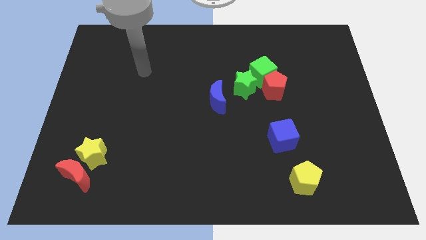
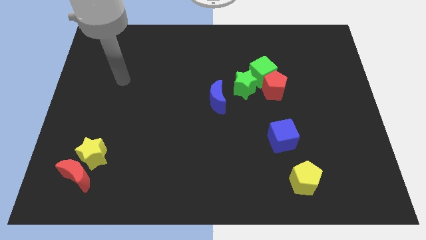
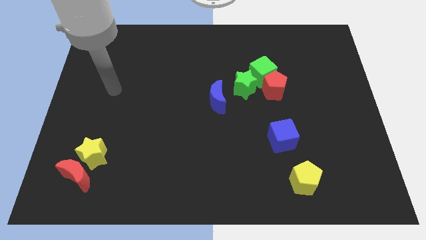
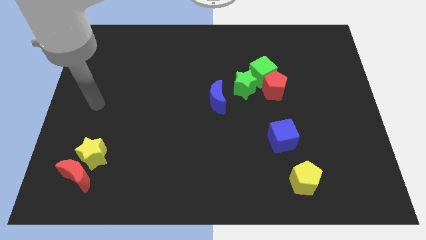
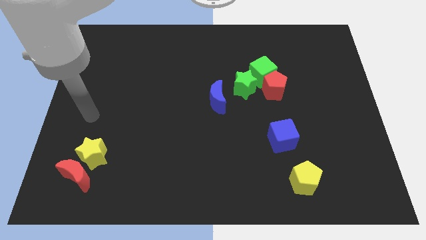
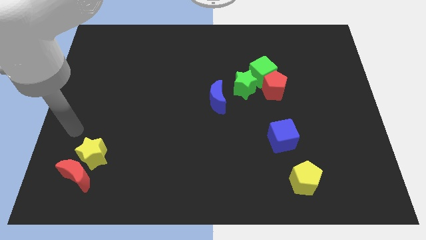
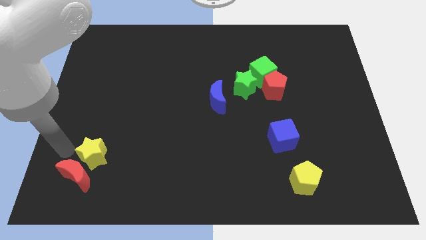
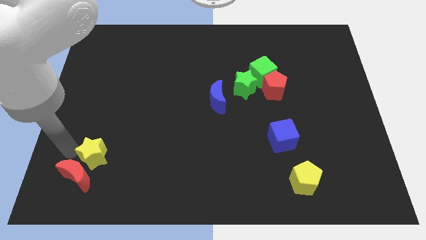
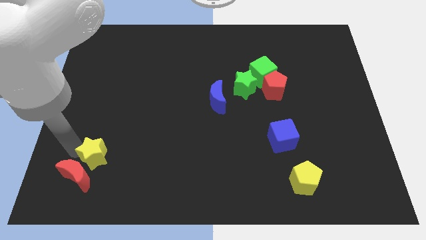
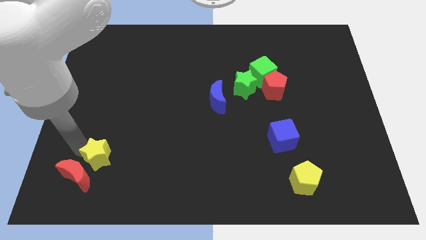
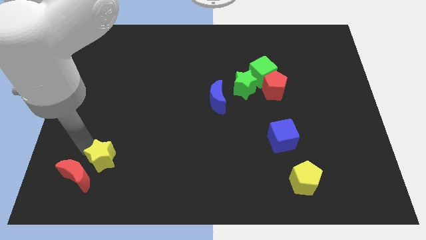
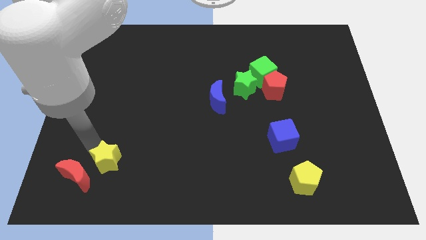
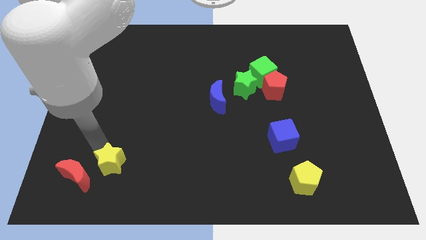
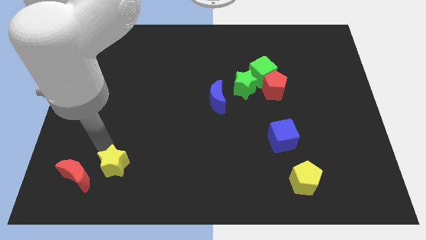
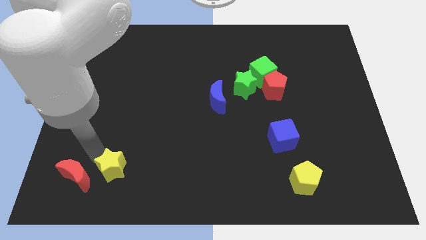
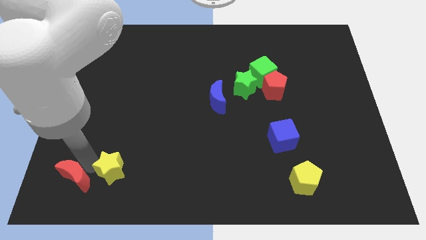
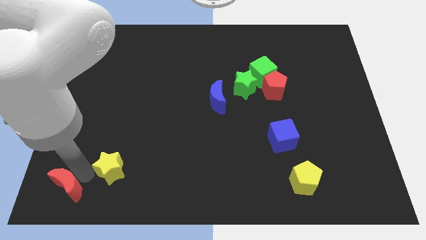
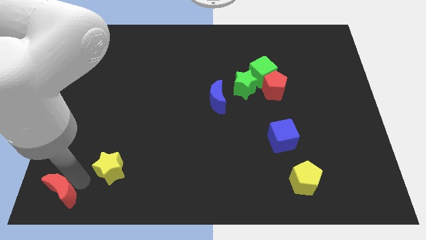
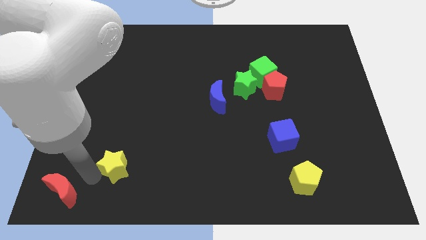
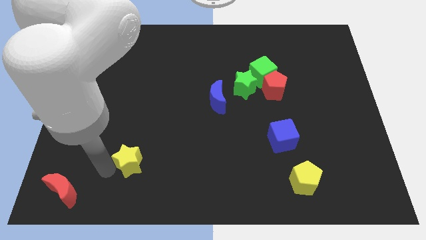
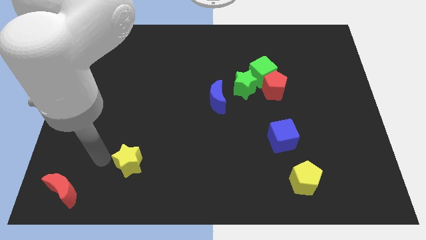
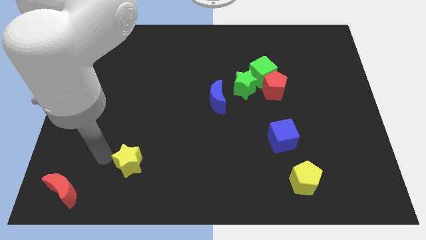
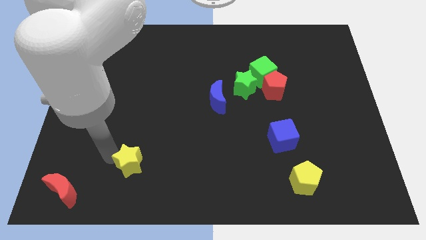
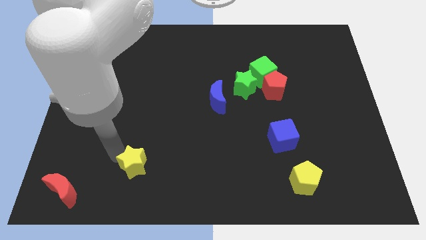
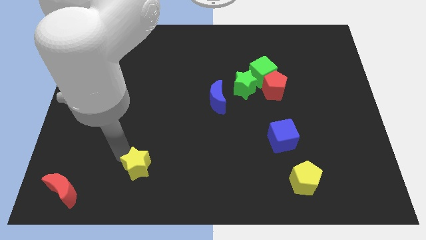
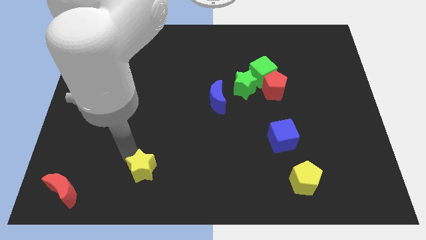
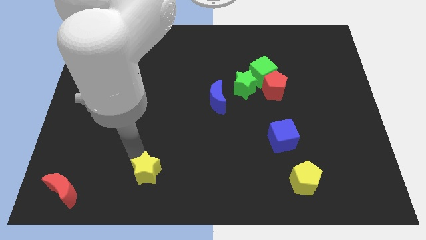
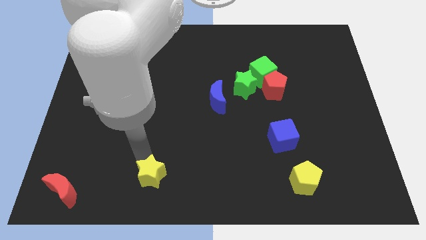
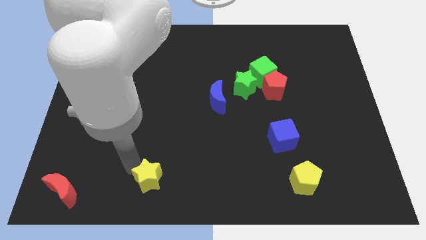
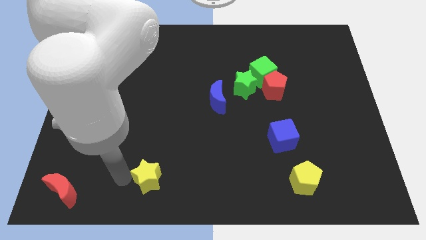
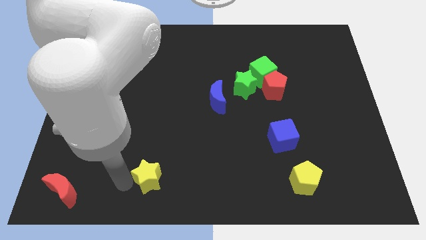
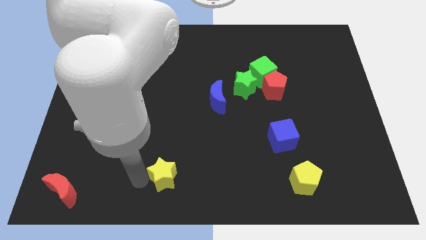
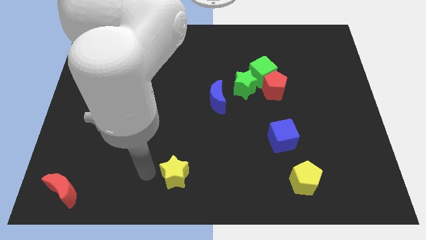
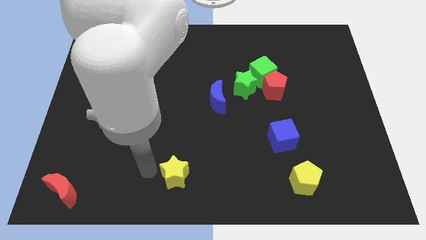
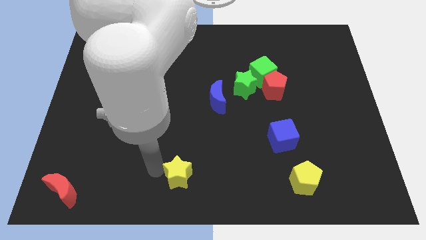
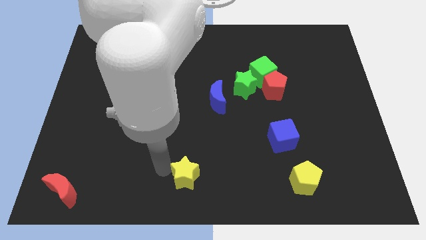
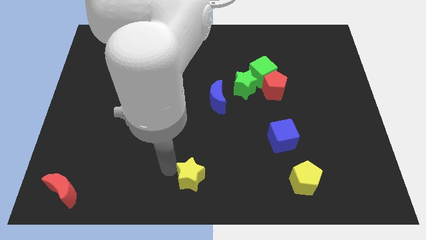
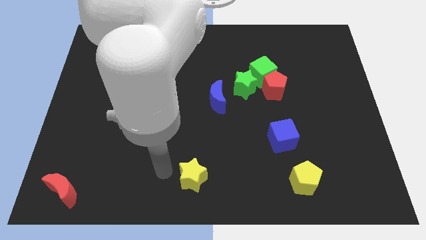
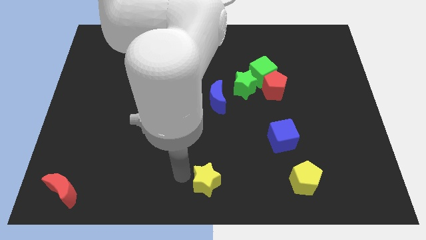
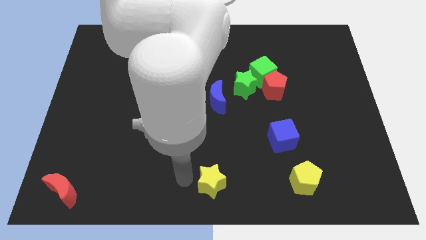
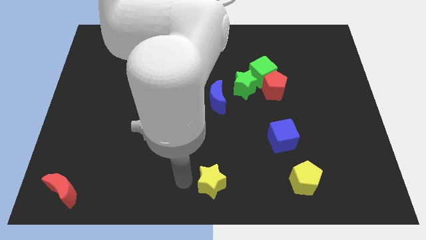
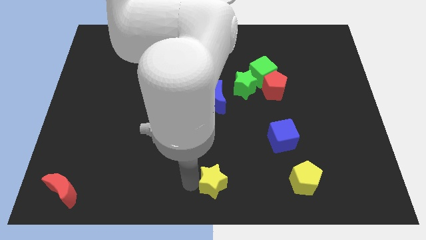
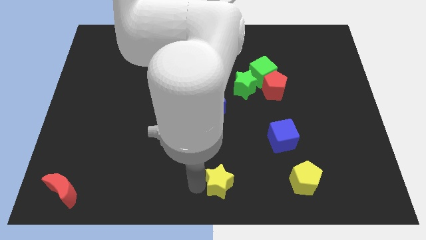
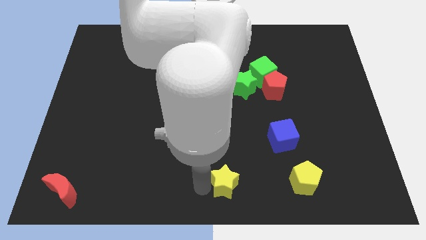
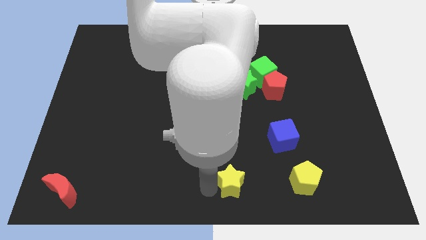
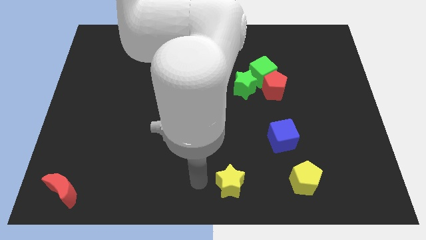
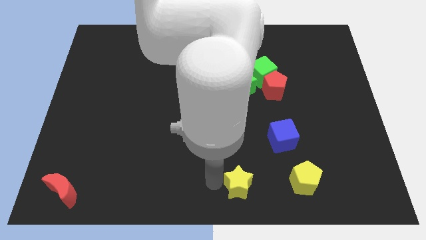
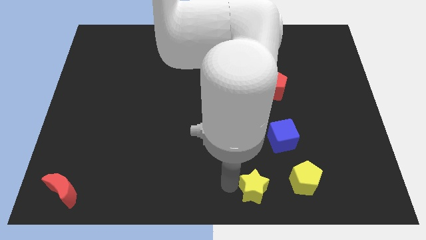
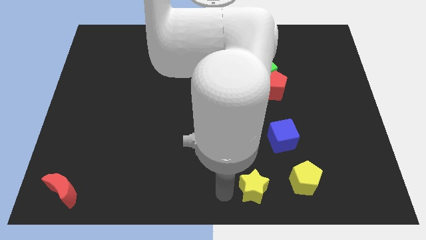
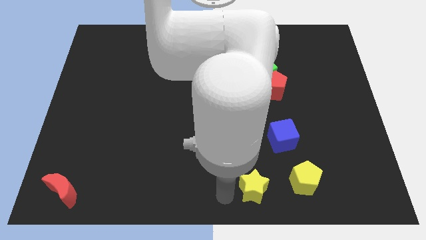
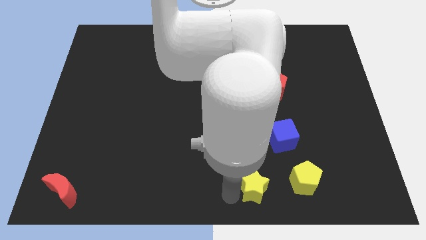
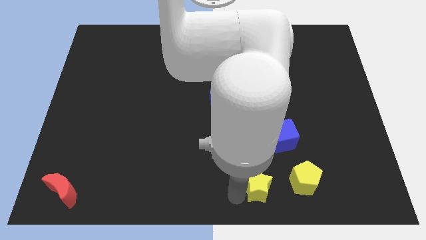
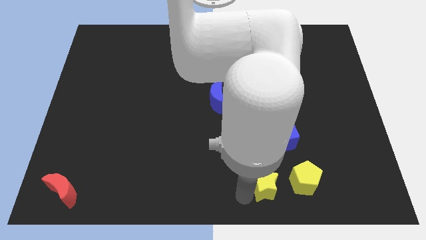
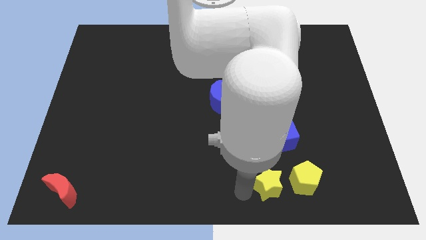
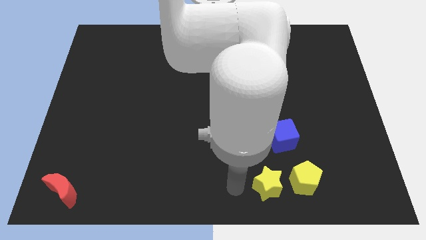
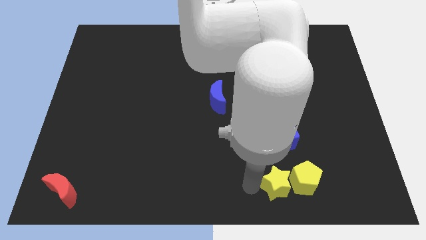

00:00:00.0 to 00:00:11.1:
put the yellow star close to the yellow pentagon

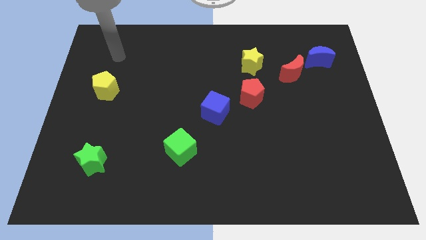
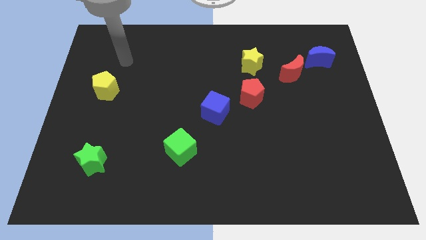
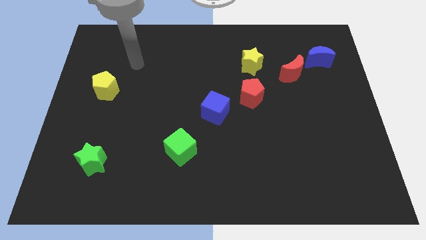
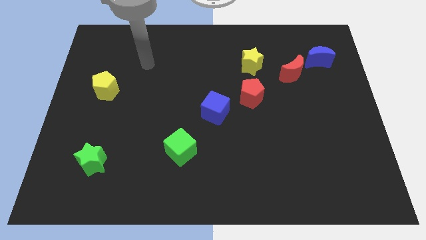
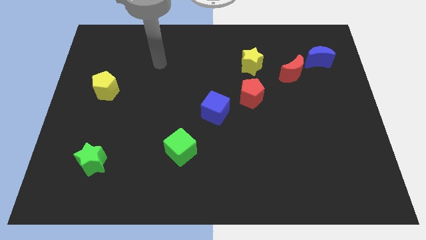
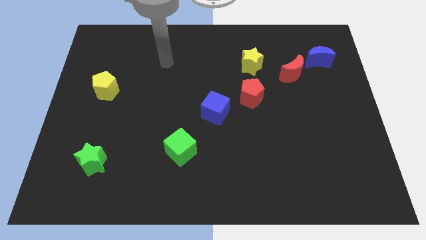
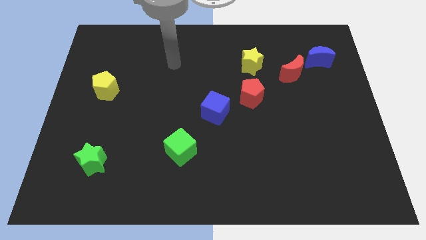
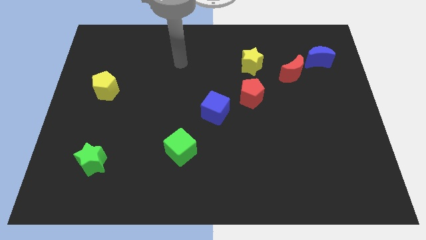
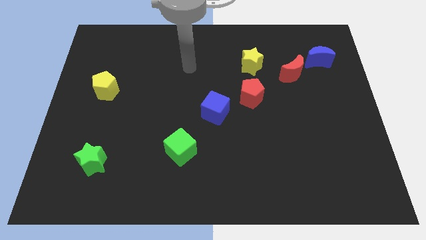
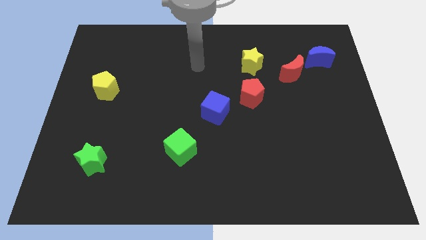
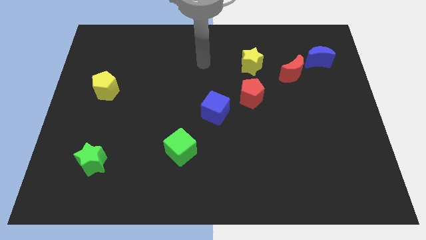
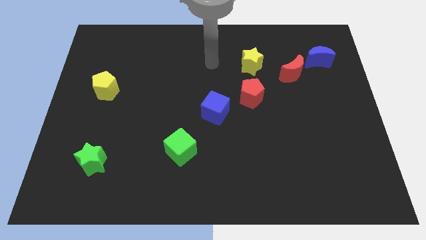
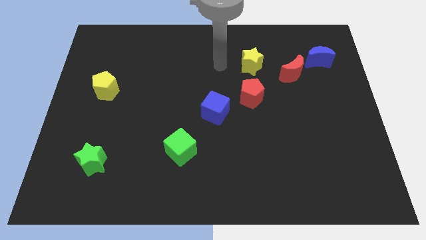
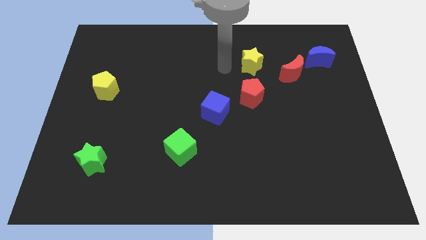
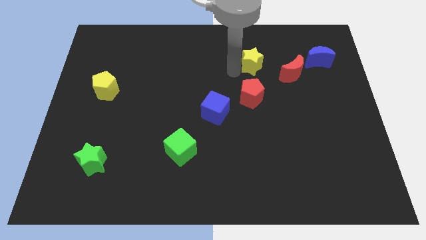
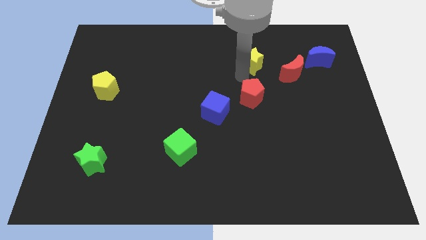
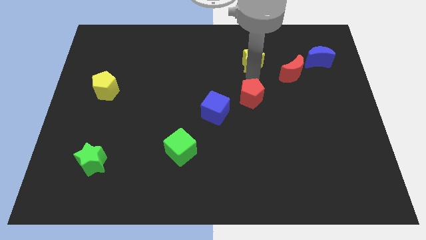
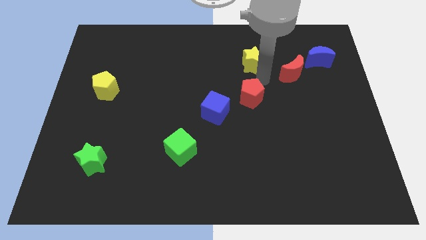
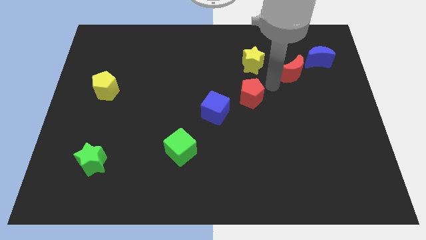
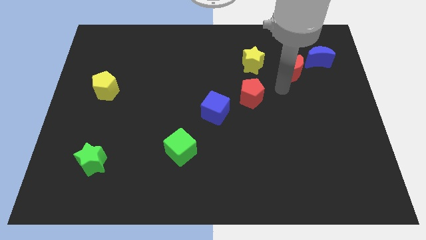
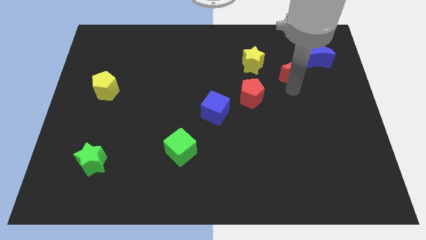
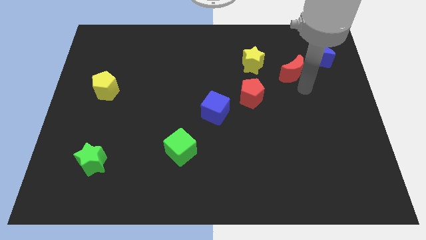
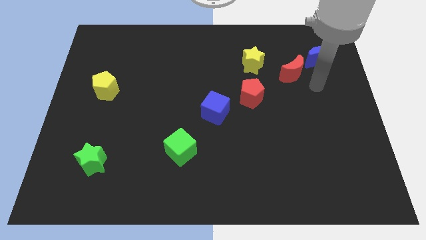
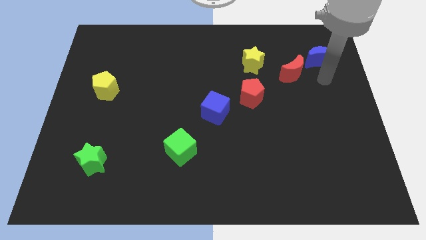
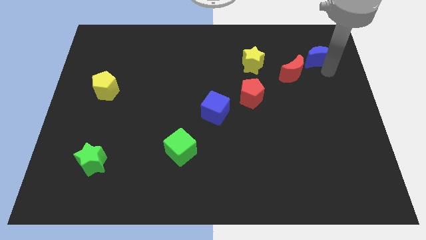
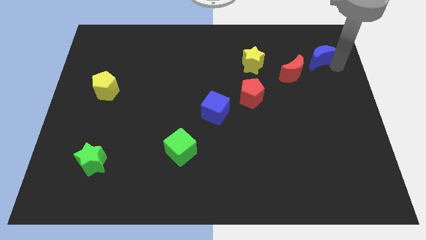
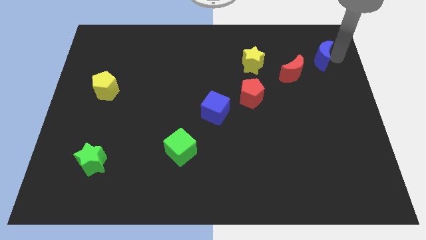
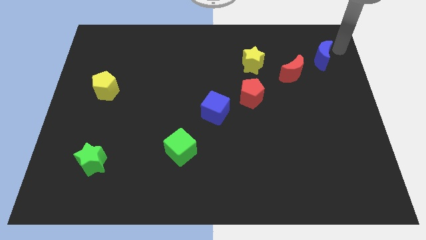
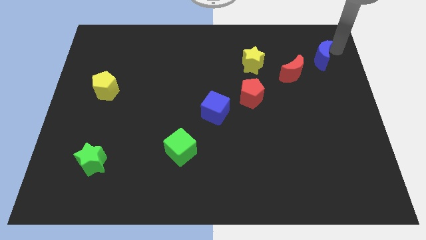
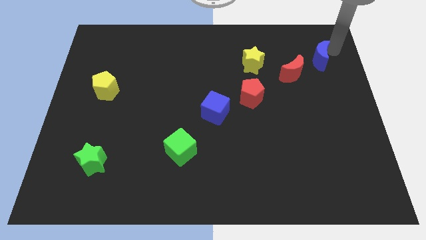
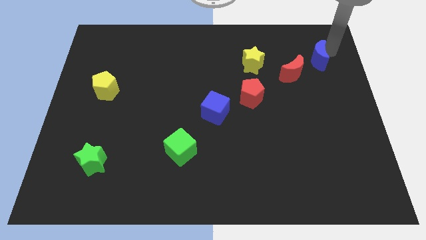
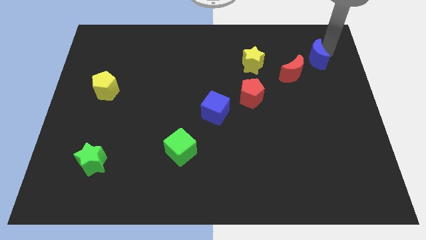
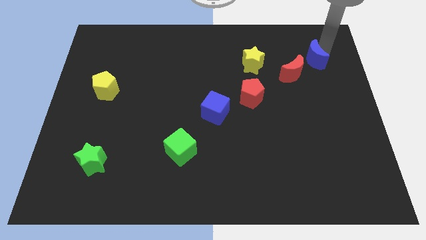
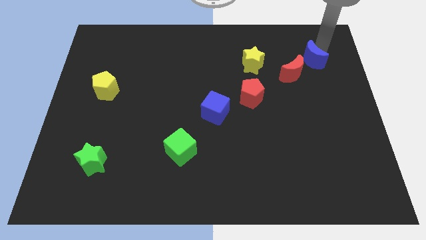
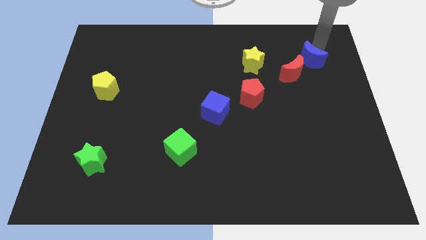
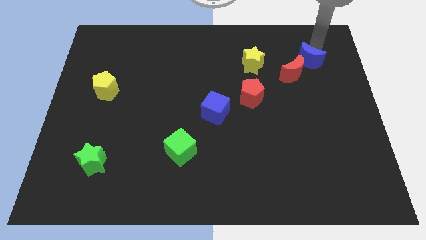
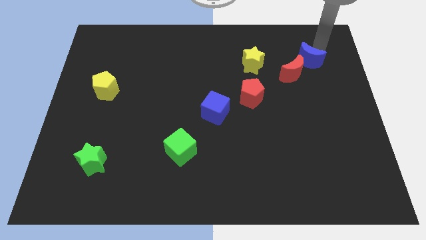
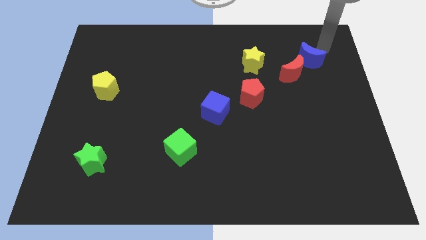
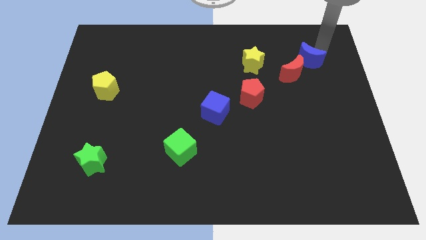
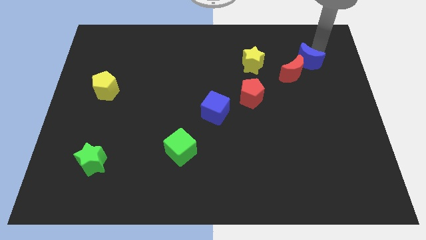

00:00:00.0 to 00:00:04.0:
push the blue moon close to the red moon
